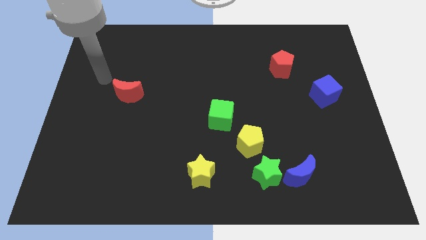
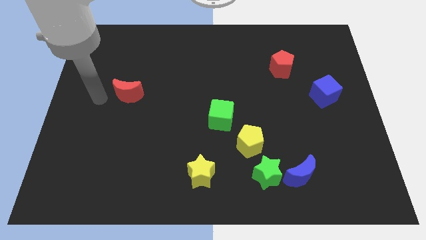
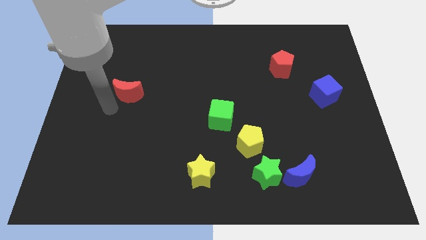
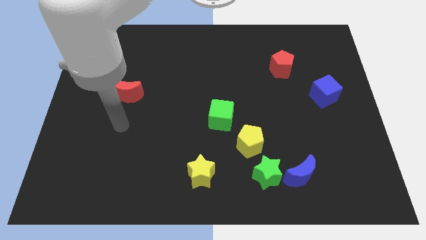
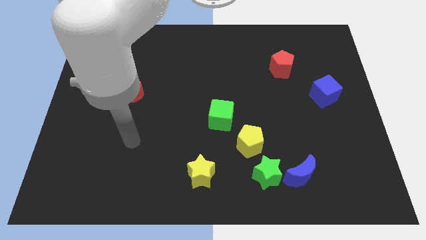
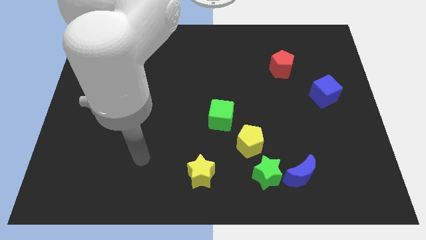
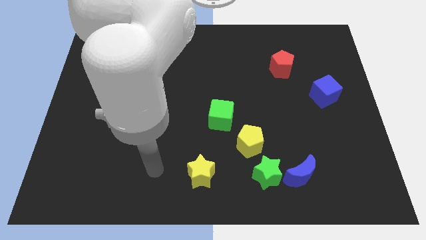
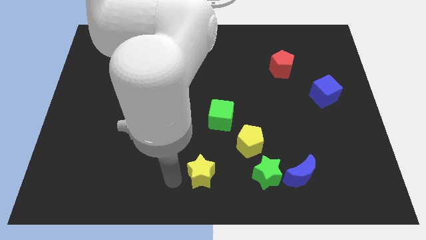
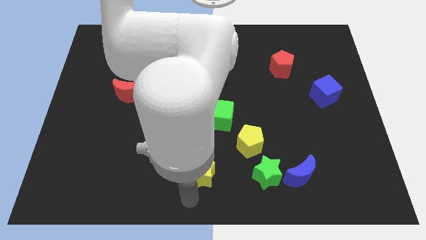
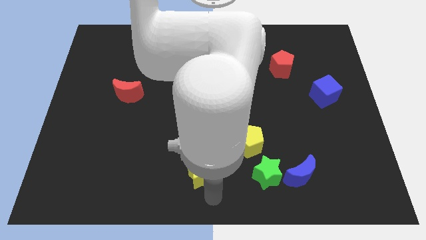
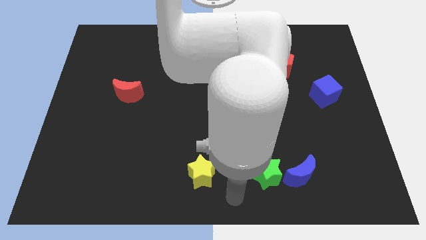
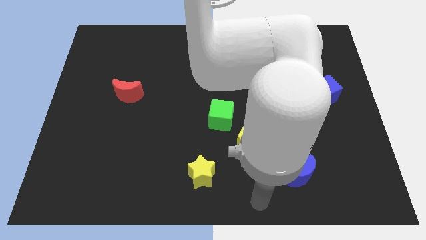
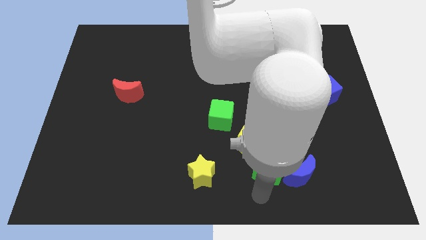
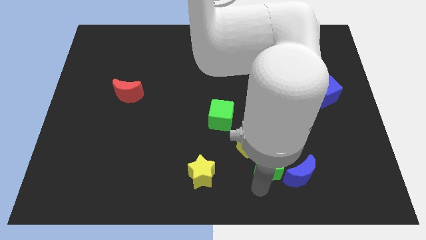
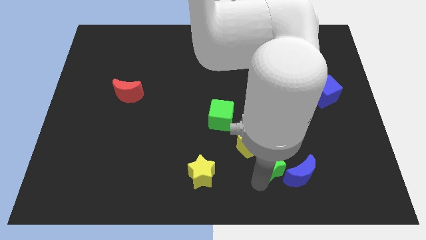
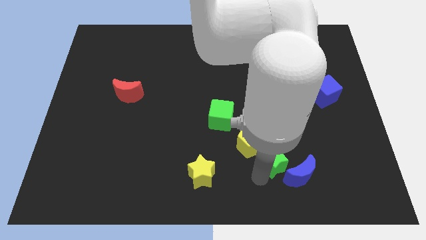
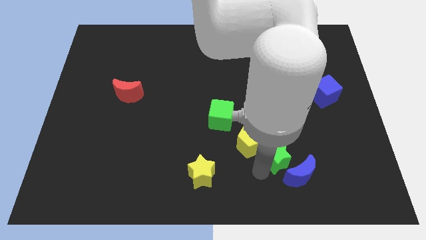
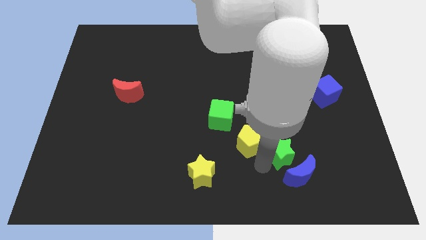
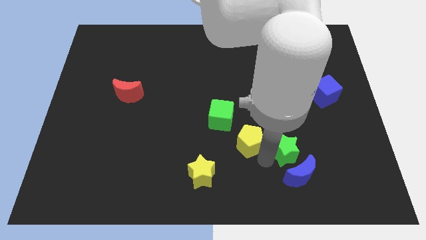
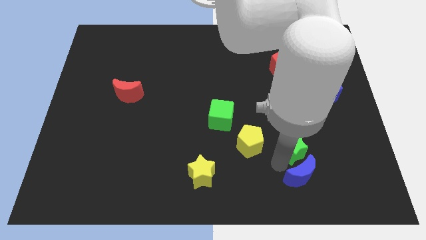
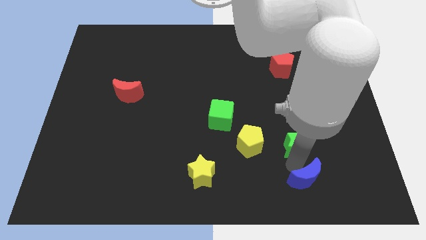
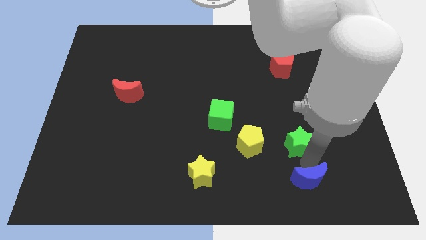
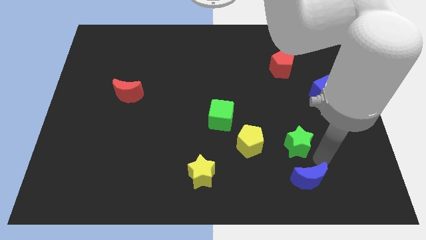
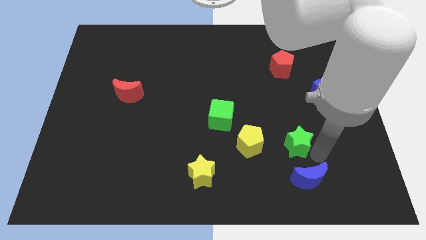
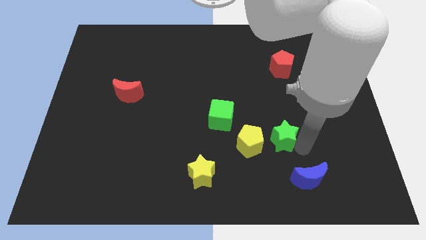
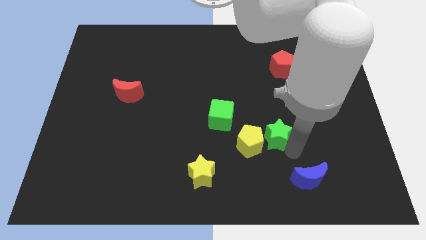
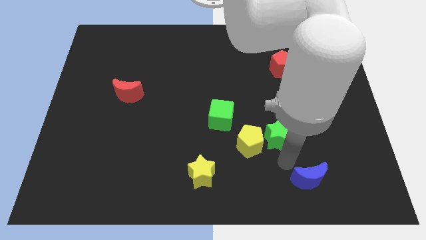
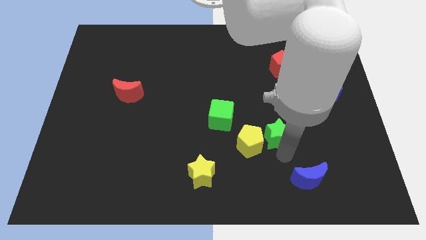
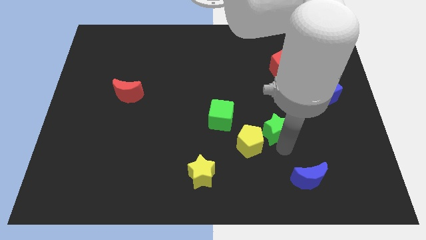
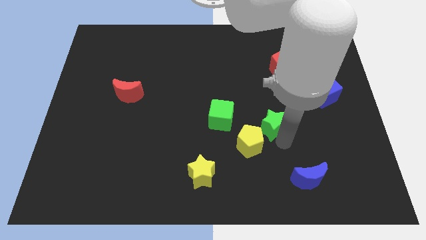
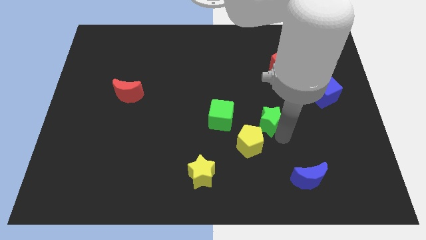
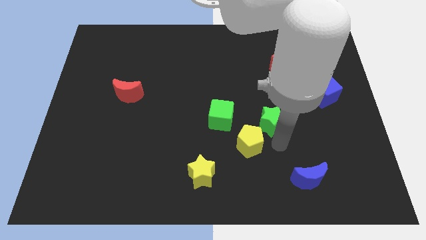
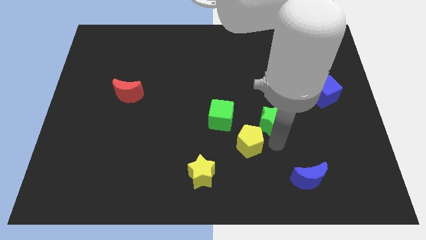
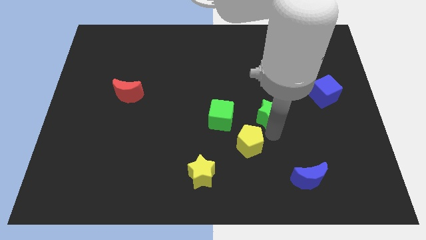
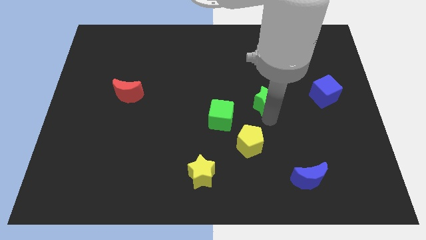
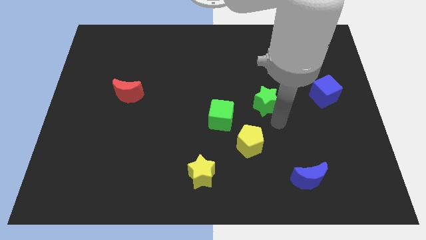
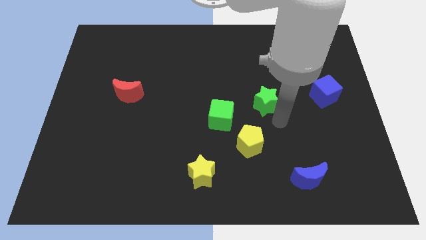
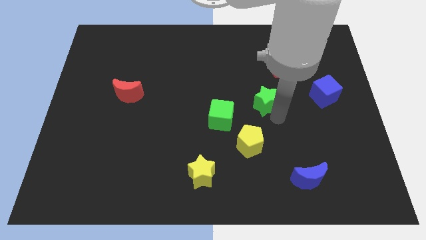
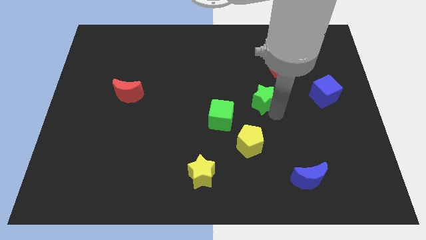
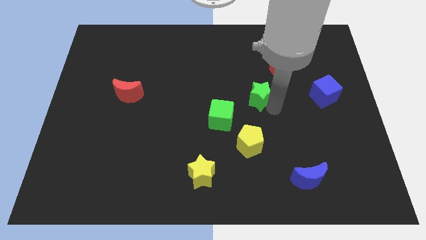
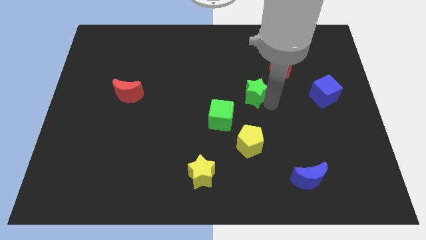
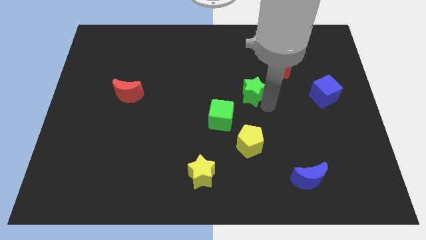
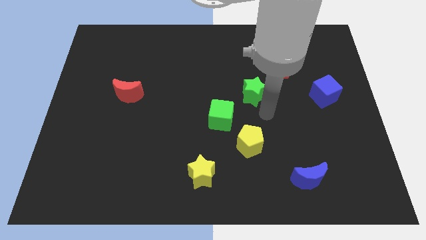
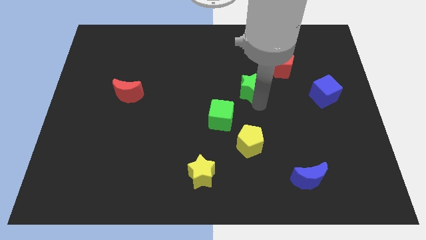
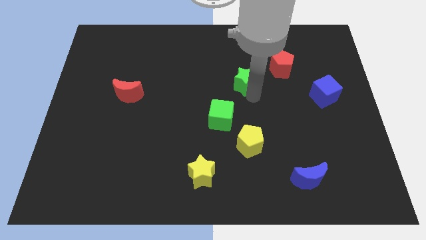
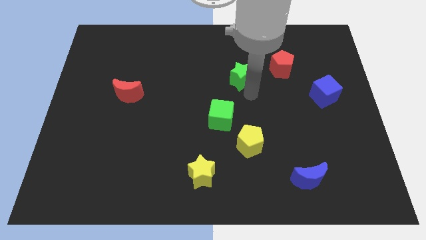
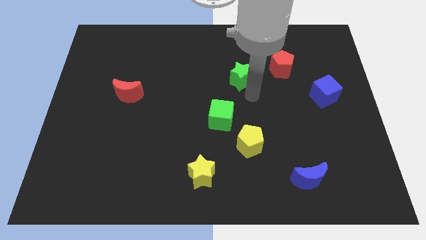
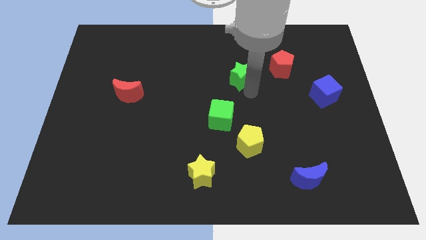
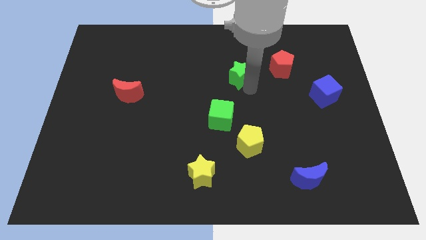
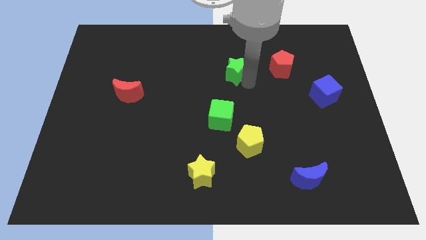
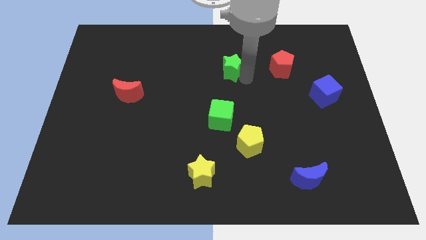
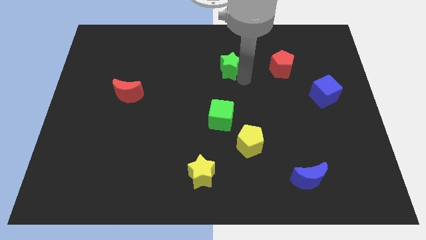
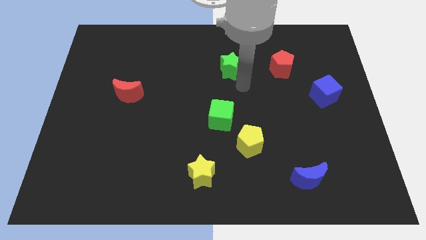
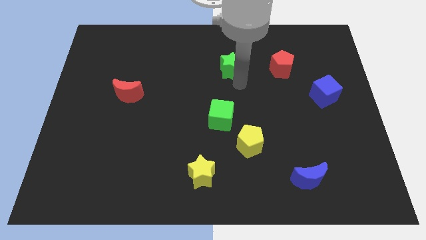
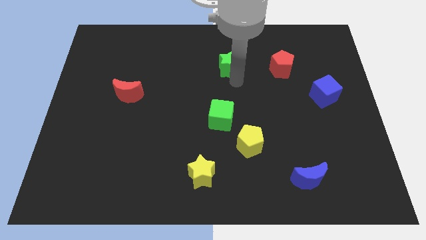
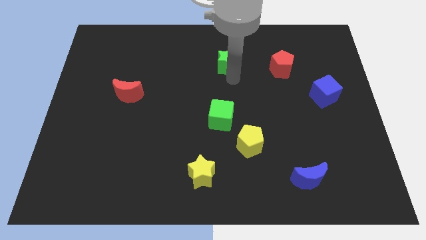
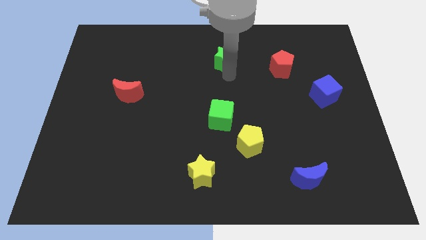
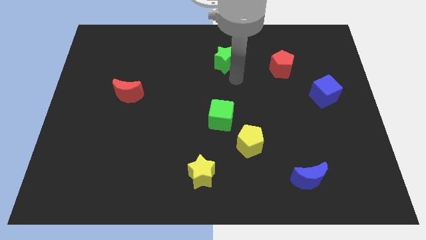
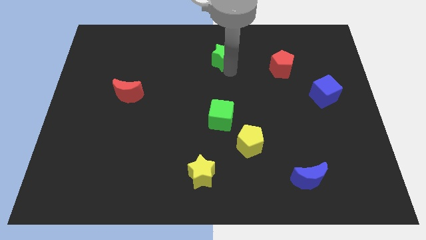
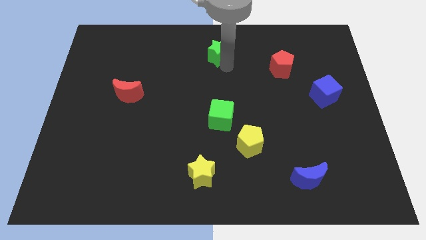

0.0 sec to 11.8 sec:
push the green star to the top side

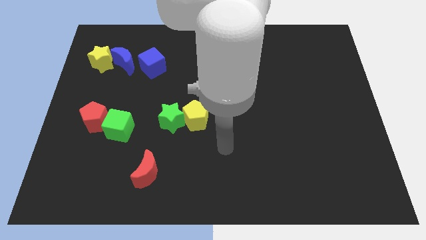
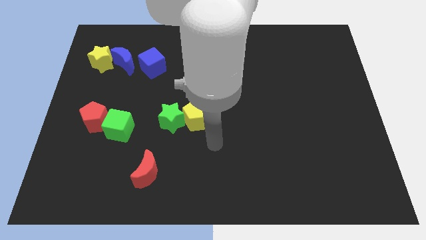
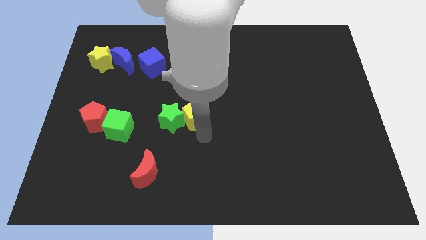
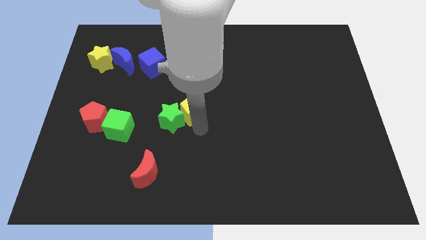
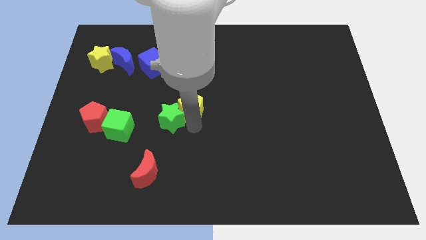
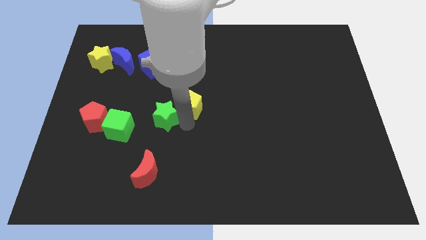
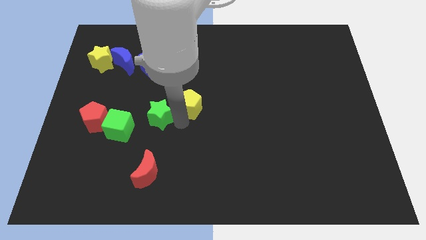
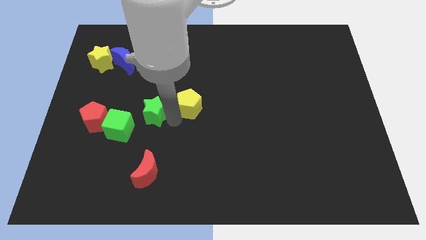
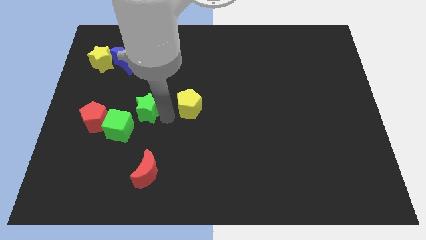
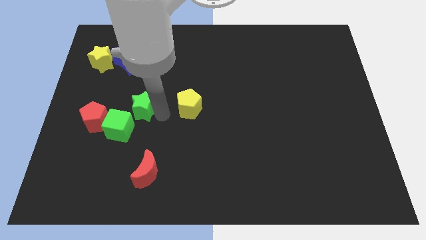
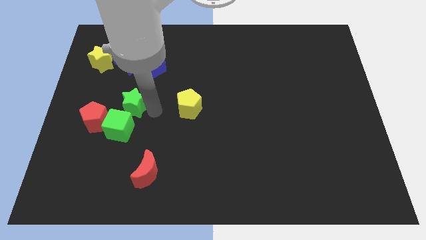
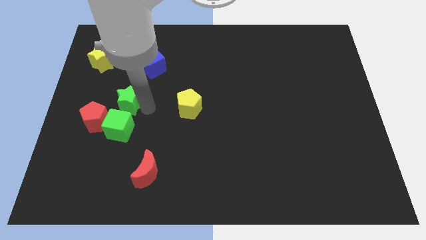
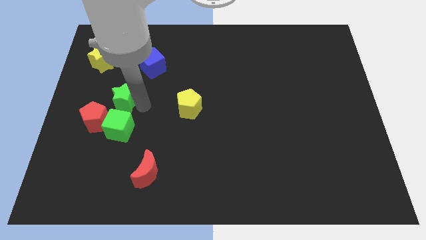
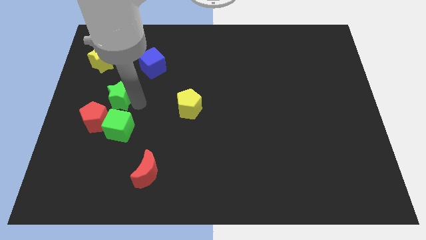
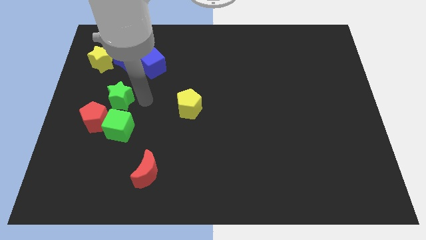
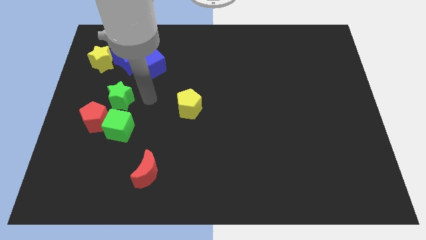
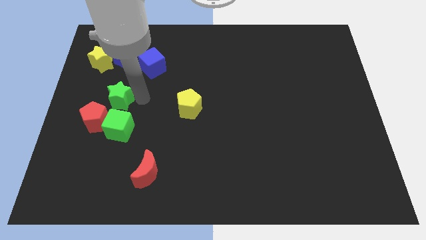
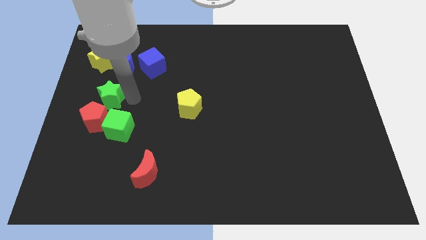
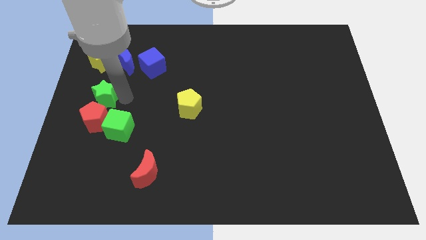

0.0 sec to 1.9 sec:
put the green star to the left side of the board
